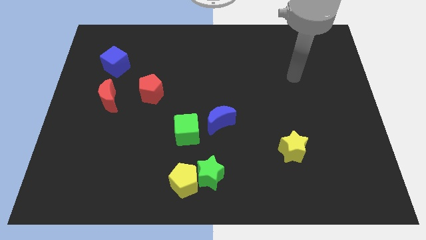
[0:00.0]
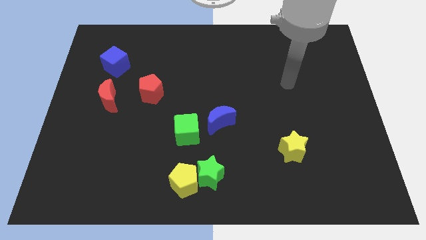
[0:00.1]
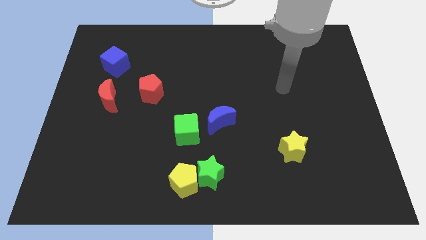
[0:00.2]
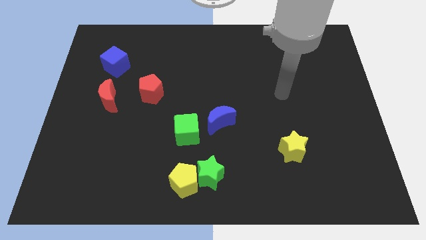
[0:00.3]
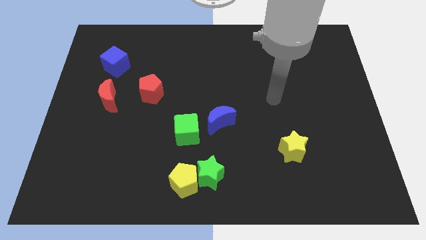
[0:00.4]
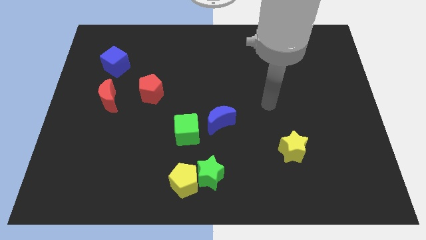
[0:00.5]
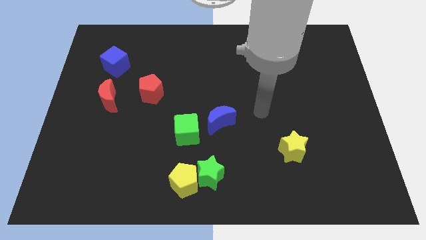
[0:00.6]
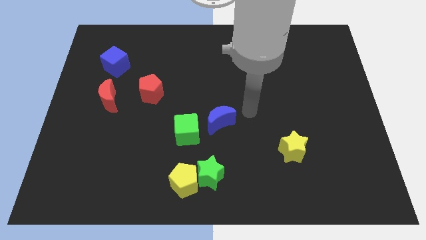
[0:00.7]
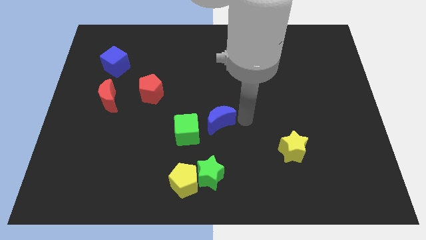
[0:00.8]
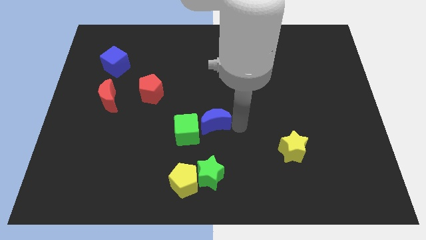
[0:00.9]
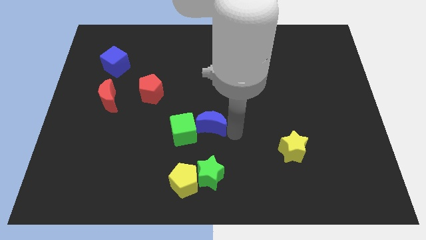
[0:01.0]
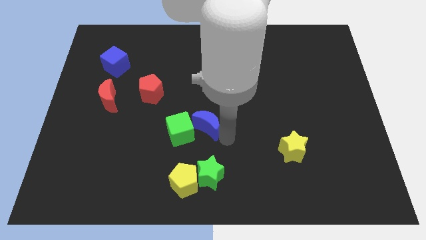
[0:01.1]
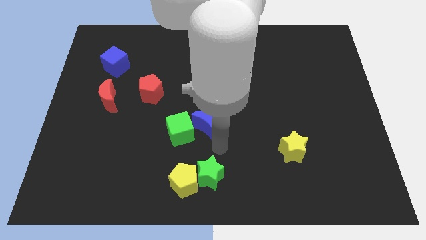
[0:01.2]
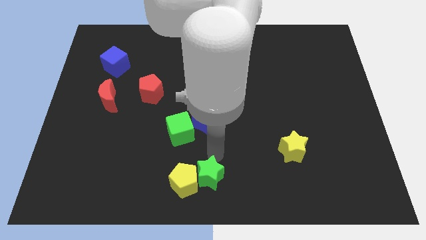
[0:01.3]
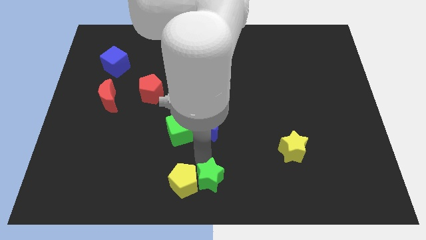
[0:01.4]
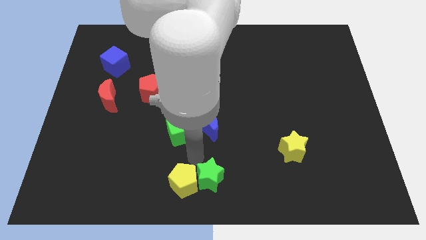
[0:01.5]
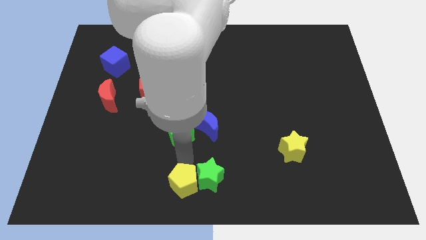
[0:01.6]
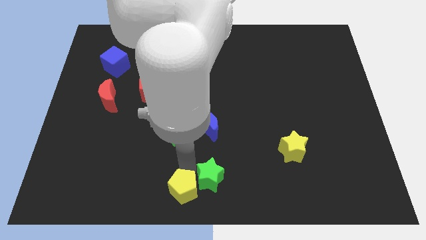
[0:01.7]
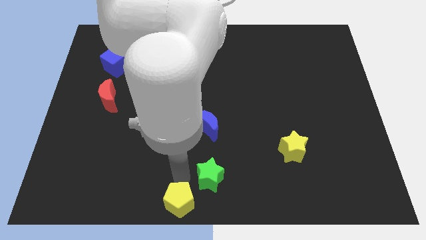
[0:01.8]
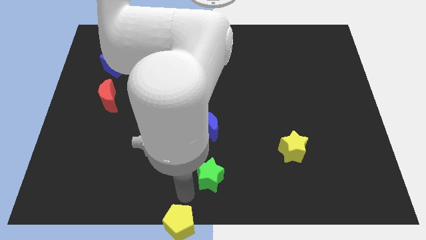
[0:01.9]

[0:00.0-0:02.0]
move the green star away from the yellow pentagon

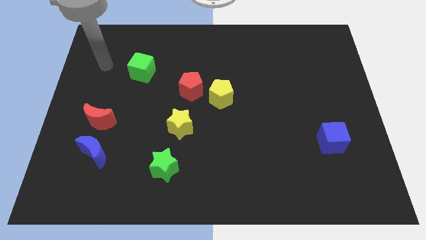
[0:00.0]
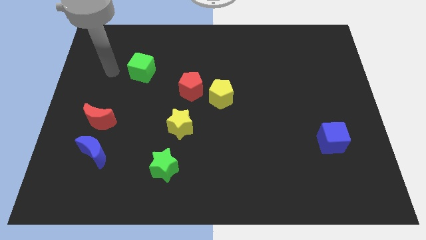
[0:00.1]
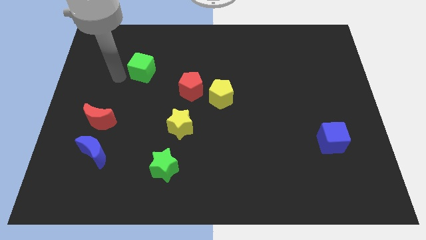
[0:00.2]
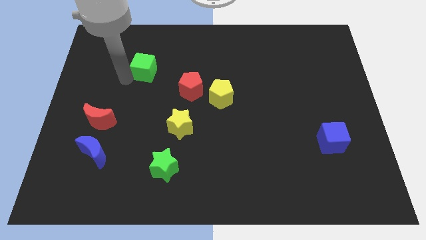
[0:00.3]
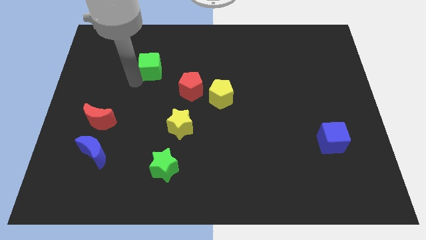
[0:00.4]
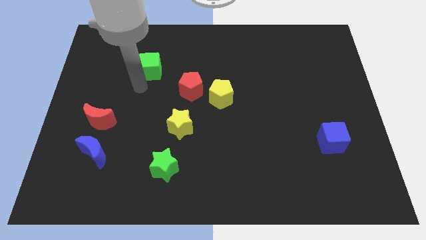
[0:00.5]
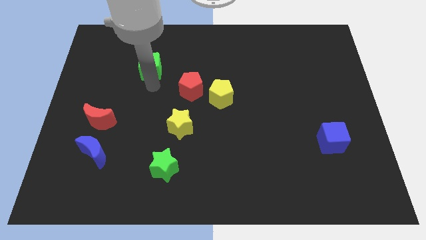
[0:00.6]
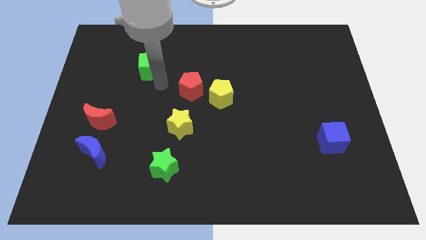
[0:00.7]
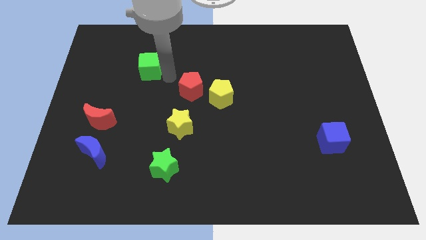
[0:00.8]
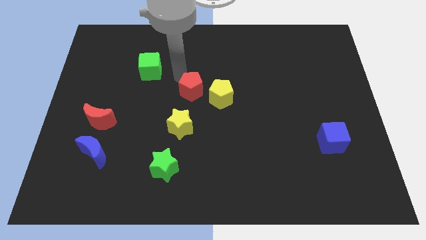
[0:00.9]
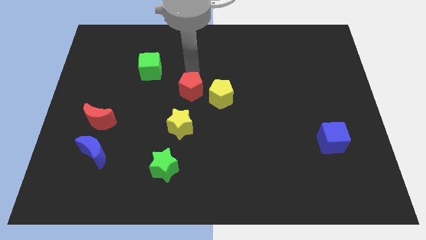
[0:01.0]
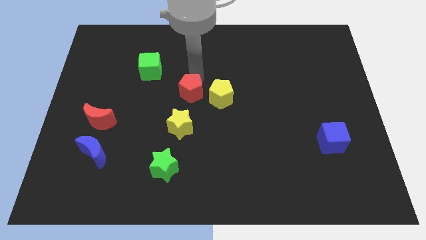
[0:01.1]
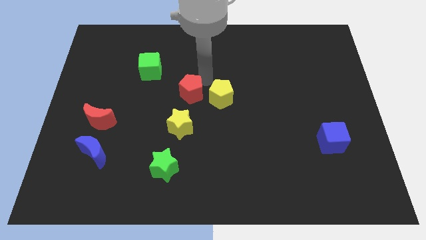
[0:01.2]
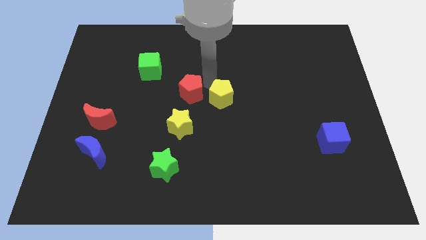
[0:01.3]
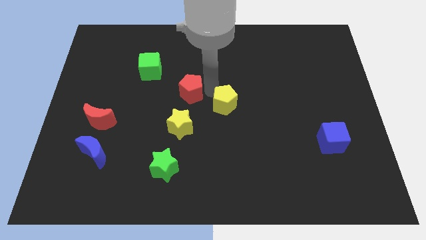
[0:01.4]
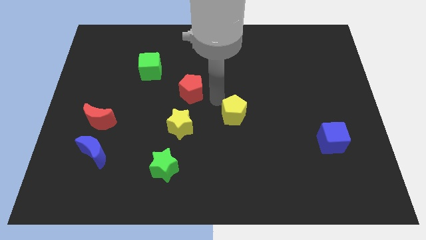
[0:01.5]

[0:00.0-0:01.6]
separate the red pentagon from the yellow pentagon

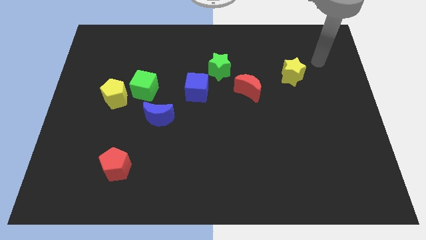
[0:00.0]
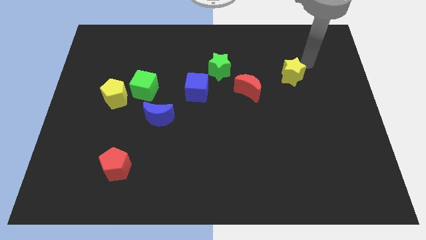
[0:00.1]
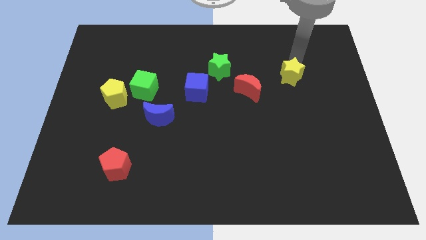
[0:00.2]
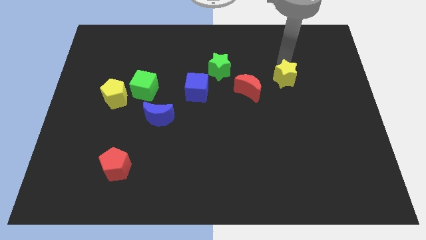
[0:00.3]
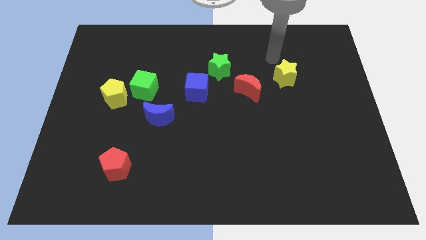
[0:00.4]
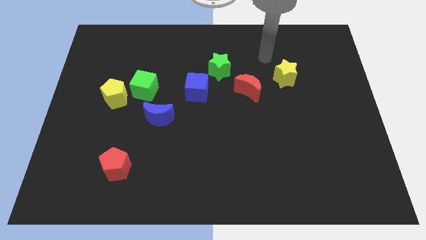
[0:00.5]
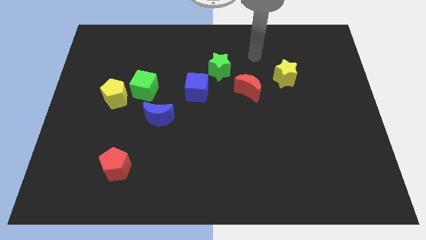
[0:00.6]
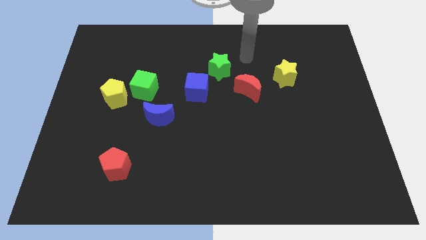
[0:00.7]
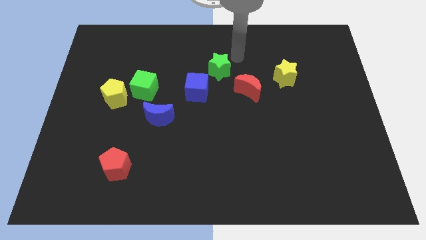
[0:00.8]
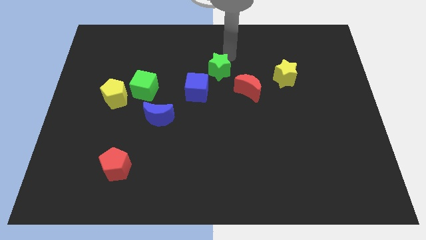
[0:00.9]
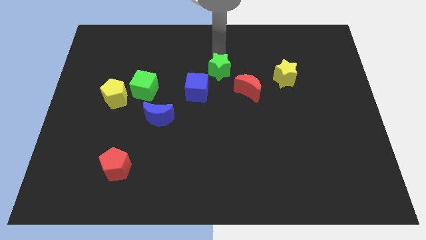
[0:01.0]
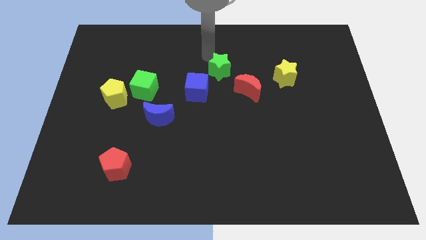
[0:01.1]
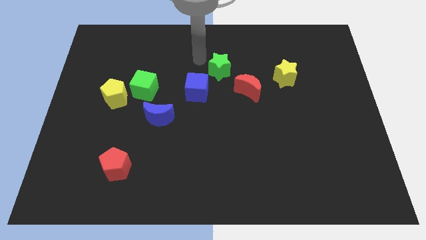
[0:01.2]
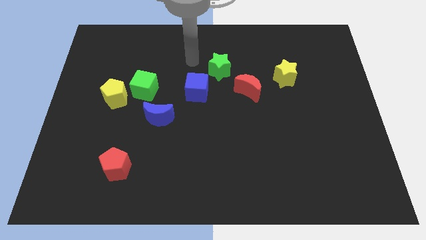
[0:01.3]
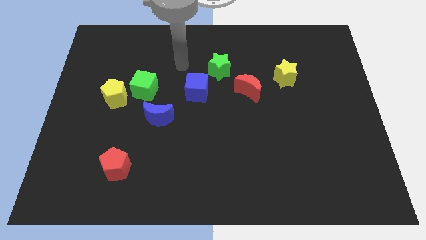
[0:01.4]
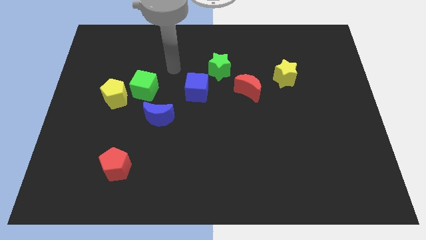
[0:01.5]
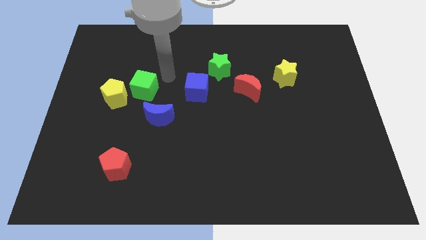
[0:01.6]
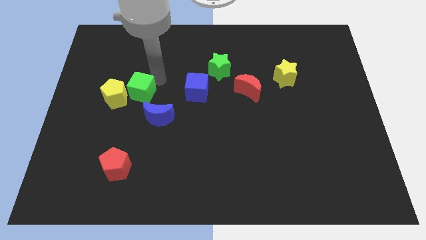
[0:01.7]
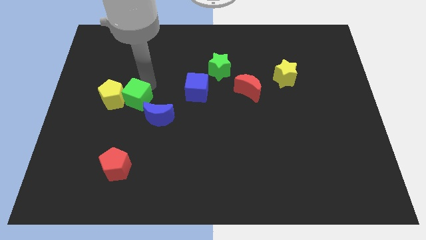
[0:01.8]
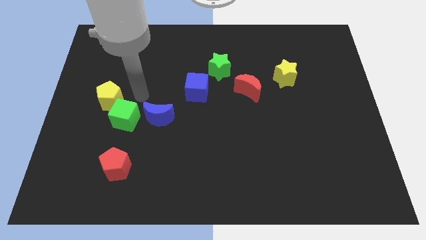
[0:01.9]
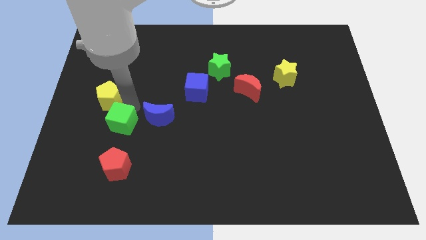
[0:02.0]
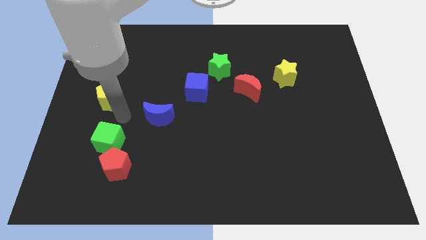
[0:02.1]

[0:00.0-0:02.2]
pull the yellow pentagon apart from the green cube

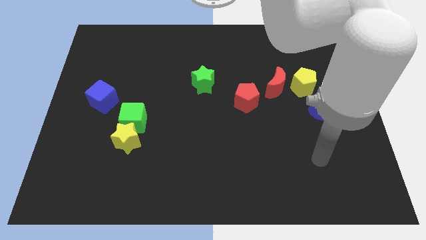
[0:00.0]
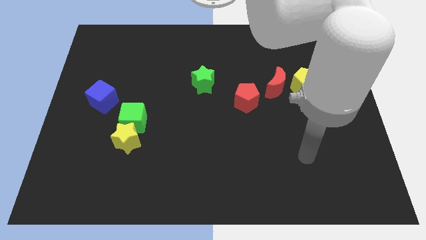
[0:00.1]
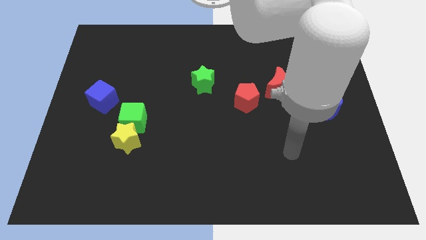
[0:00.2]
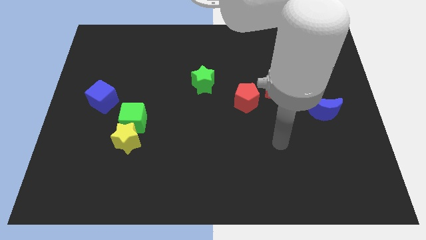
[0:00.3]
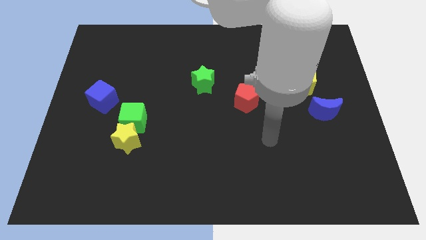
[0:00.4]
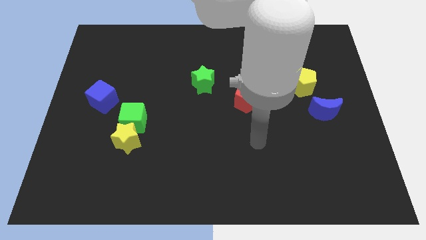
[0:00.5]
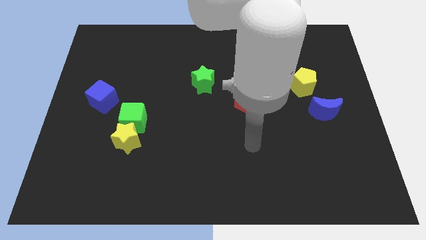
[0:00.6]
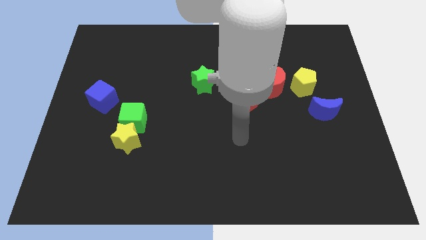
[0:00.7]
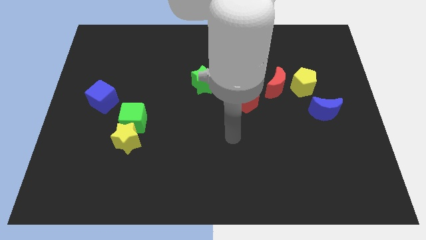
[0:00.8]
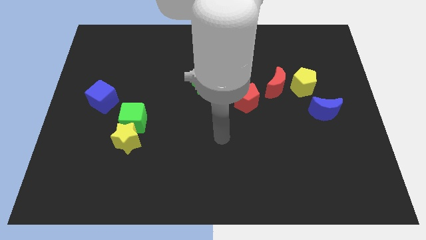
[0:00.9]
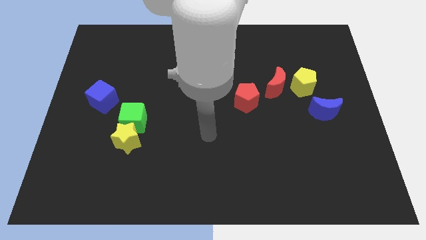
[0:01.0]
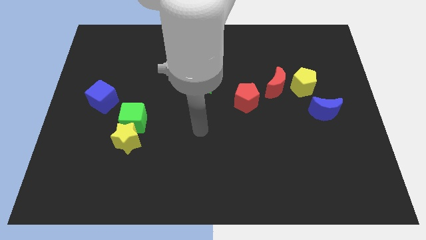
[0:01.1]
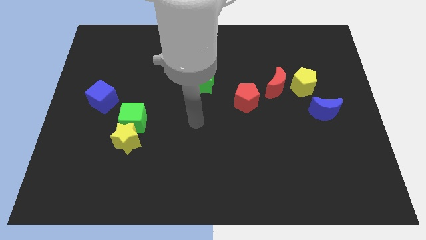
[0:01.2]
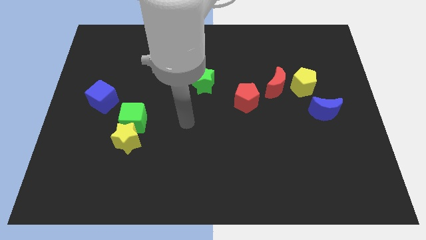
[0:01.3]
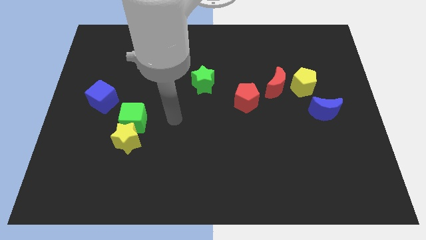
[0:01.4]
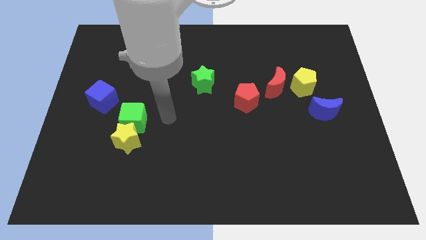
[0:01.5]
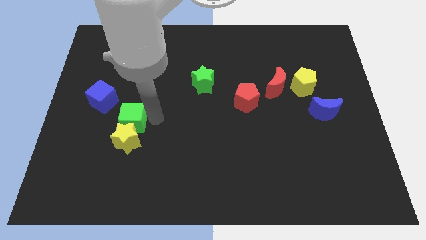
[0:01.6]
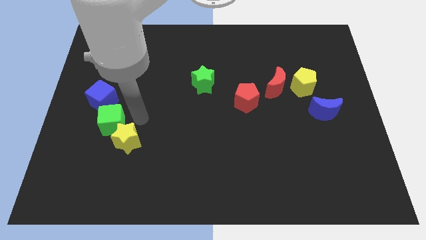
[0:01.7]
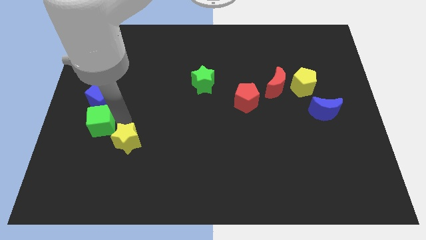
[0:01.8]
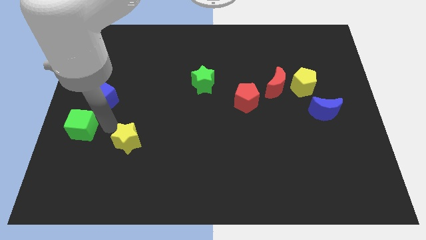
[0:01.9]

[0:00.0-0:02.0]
move the yellow star away from the green cube

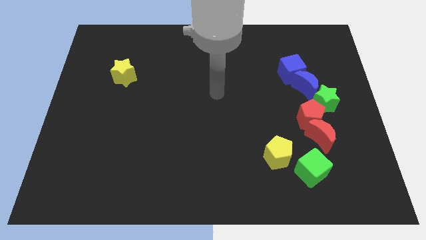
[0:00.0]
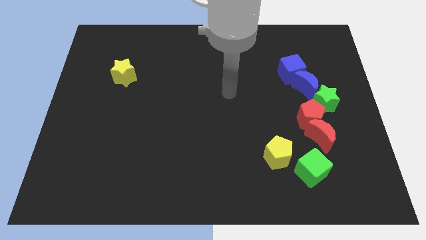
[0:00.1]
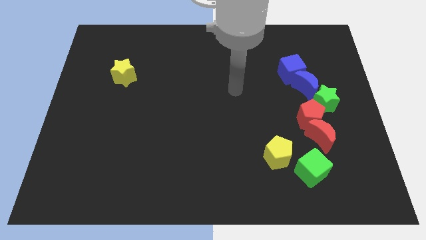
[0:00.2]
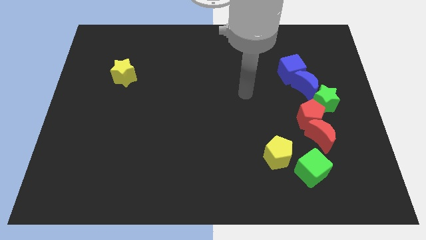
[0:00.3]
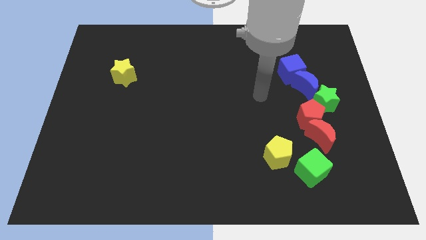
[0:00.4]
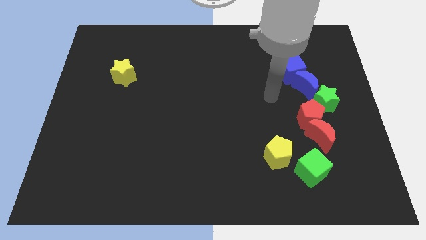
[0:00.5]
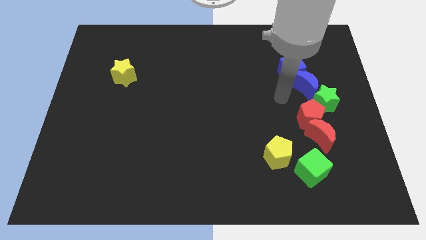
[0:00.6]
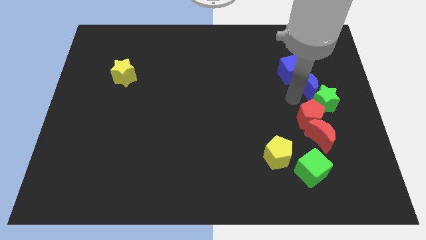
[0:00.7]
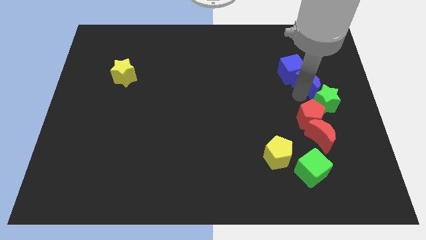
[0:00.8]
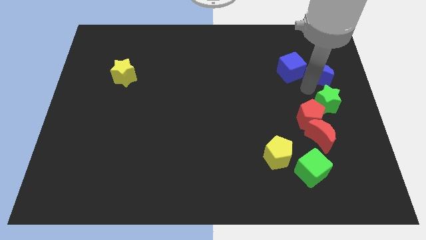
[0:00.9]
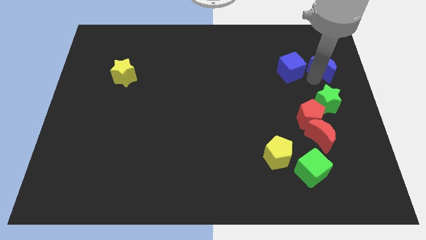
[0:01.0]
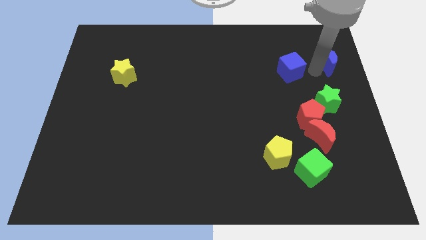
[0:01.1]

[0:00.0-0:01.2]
separate the blue cube from the blue moon

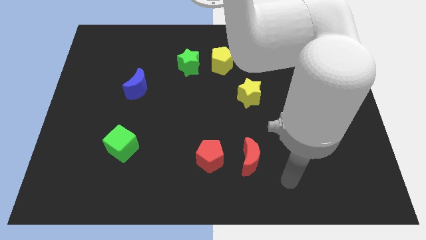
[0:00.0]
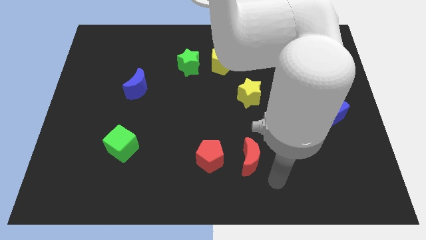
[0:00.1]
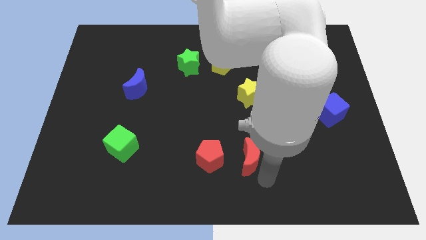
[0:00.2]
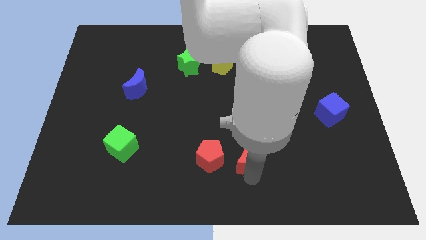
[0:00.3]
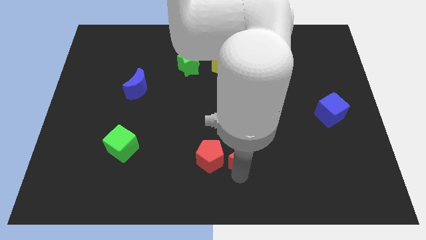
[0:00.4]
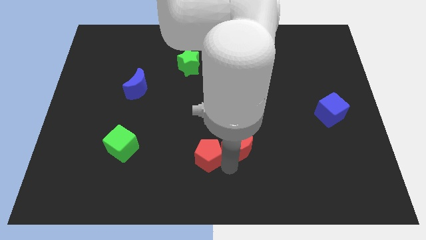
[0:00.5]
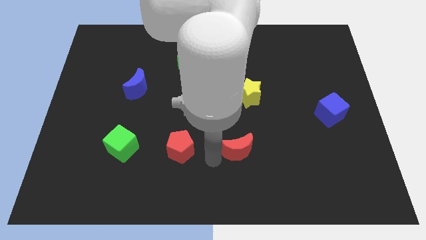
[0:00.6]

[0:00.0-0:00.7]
pull the red moon apart from the red pentagon
